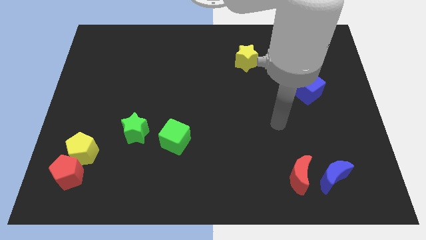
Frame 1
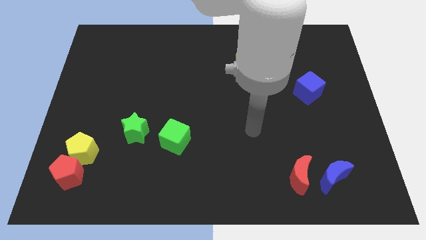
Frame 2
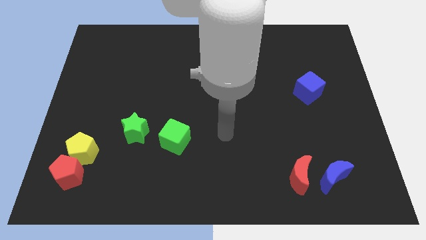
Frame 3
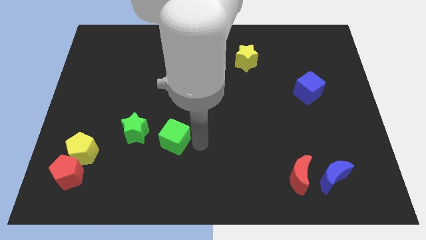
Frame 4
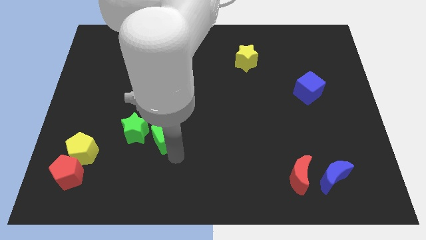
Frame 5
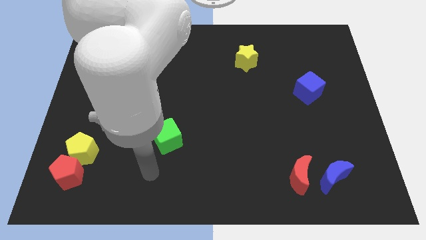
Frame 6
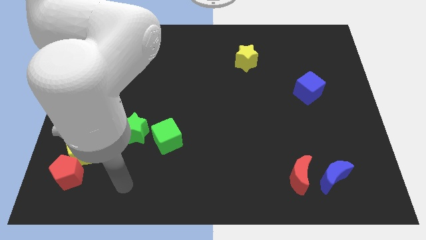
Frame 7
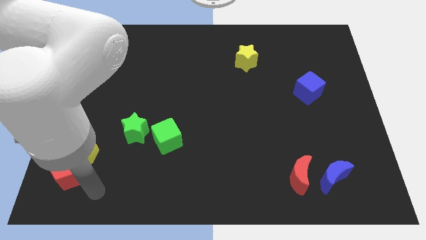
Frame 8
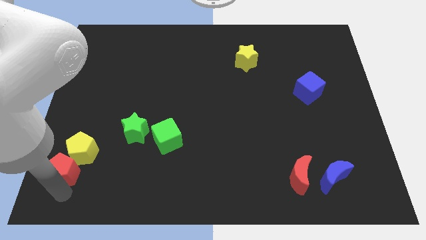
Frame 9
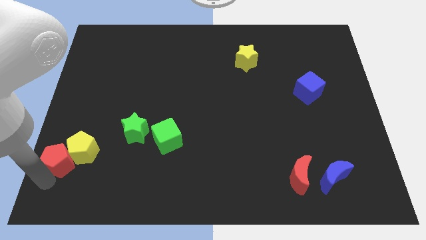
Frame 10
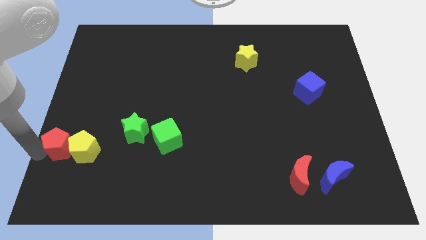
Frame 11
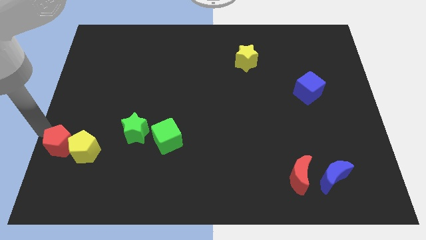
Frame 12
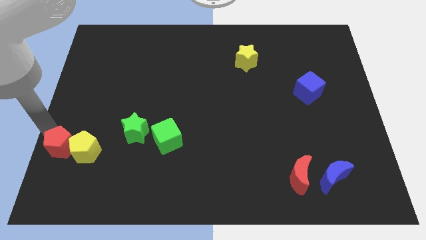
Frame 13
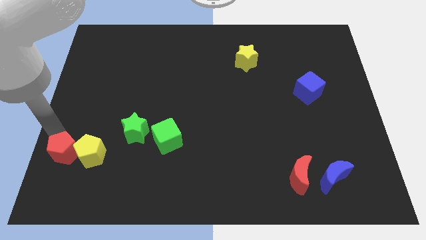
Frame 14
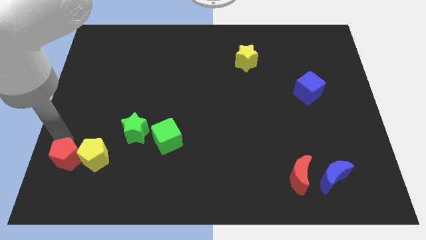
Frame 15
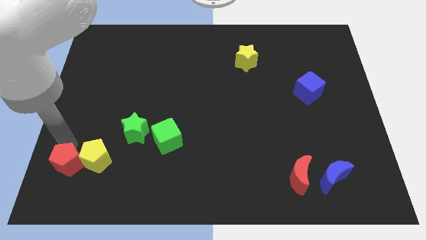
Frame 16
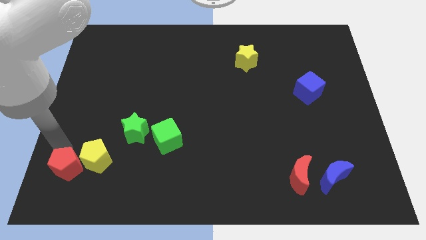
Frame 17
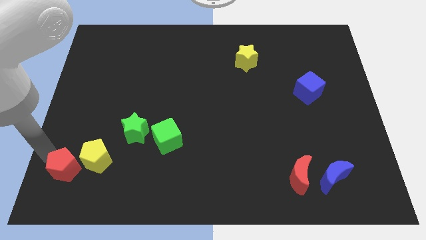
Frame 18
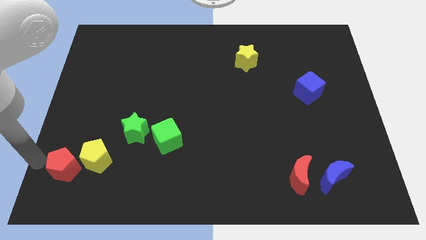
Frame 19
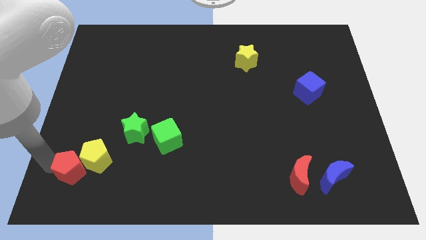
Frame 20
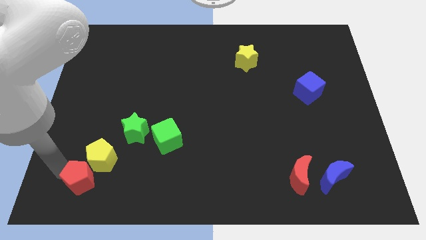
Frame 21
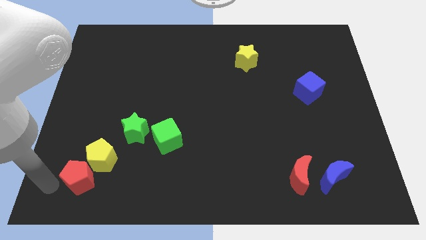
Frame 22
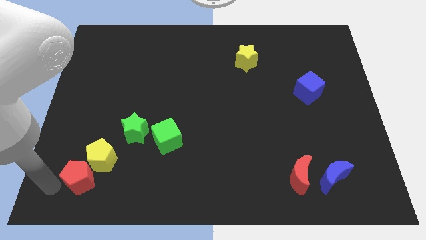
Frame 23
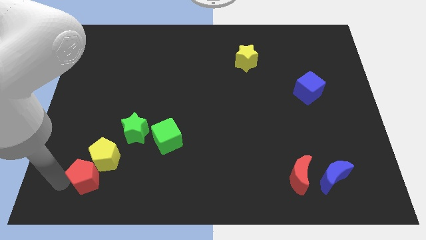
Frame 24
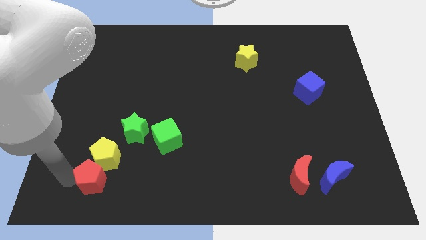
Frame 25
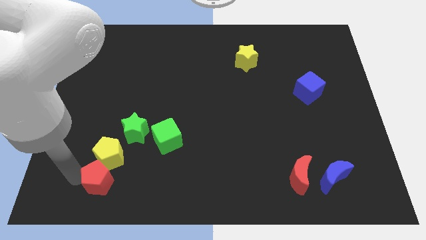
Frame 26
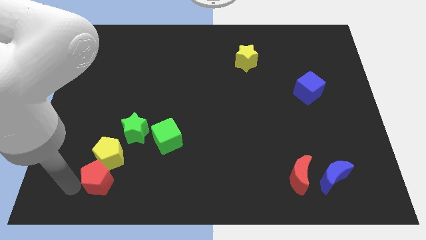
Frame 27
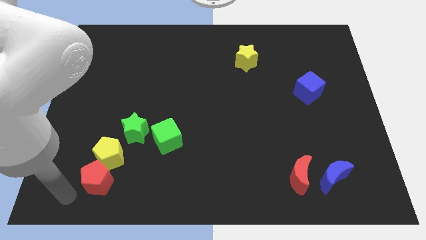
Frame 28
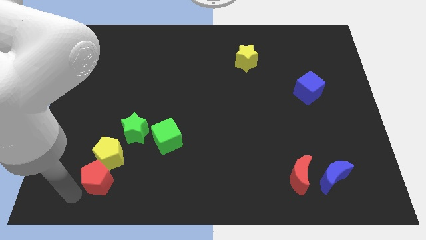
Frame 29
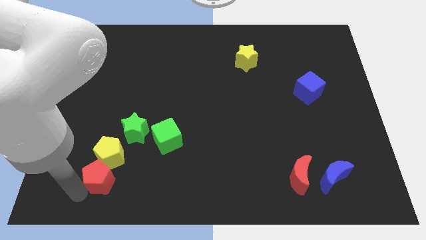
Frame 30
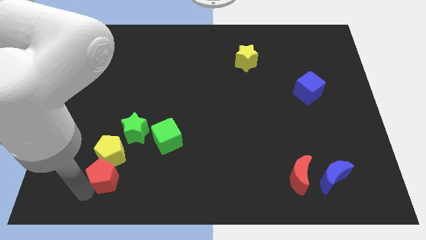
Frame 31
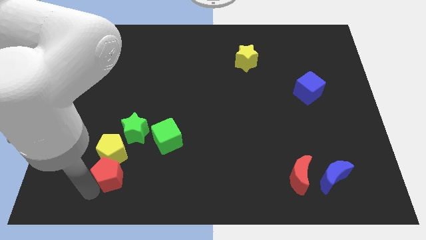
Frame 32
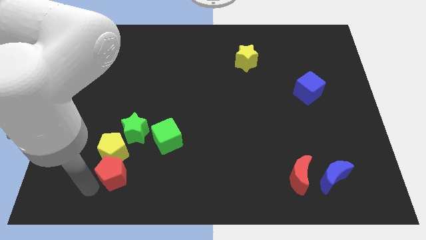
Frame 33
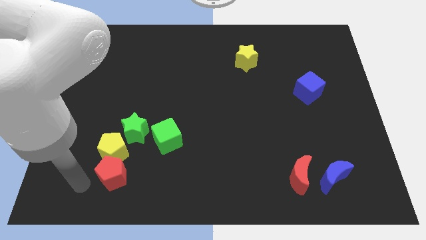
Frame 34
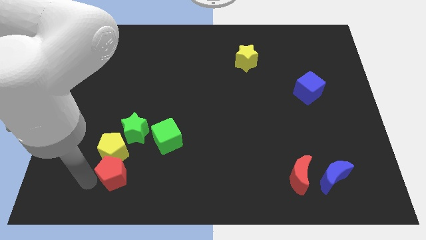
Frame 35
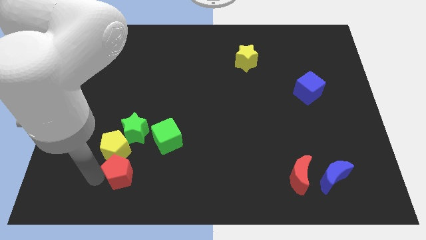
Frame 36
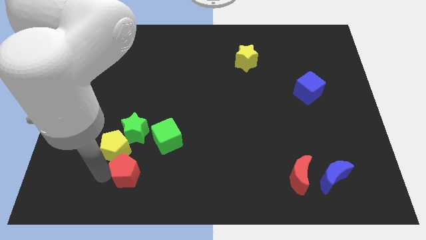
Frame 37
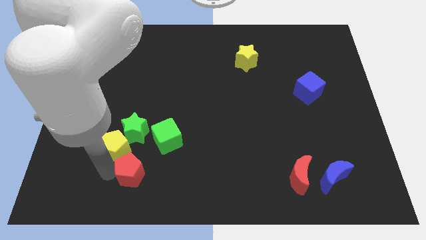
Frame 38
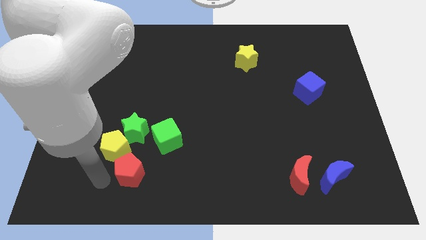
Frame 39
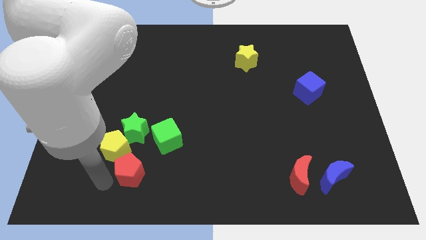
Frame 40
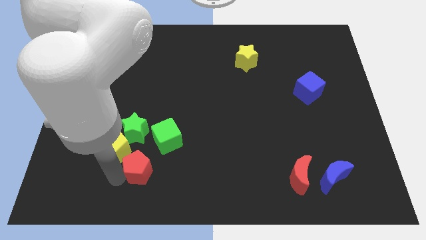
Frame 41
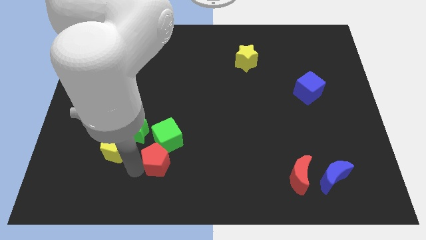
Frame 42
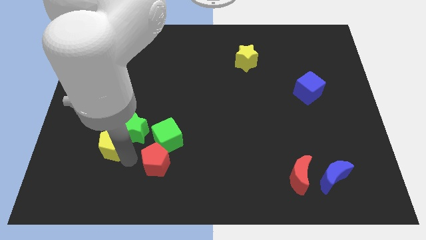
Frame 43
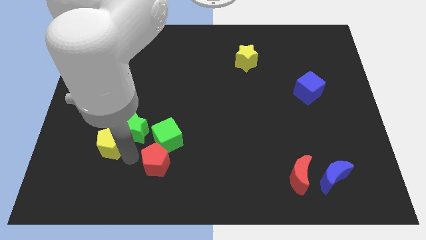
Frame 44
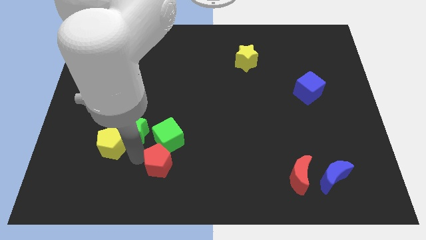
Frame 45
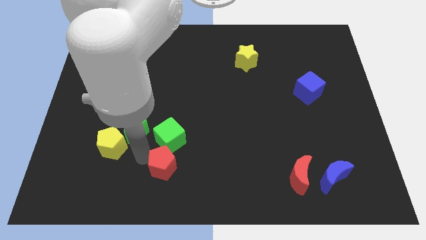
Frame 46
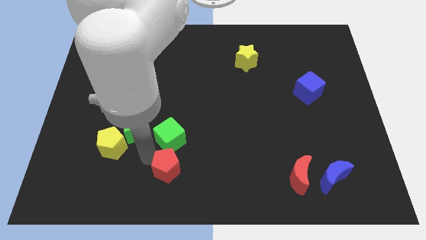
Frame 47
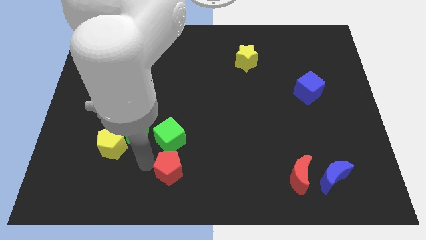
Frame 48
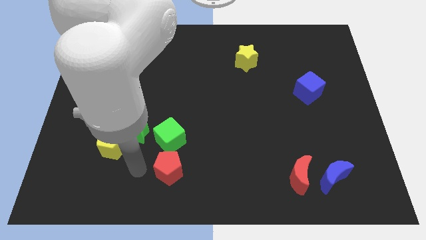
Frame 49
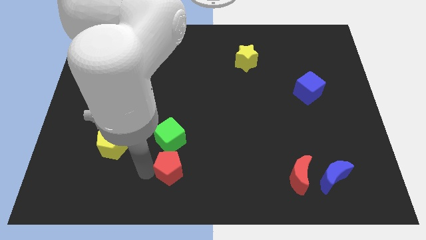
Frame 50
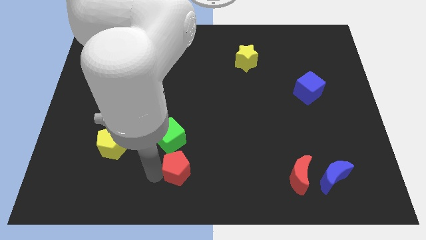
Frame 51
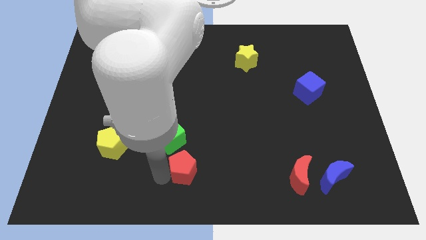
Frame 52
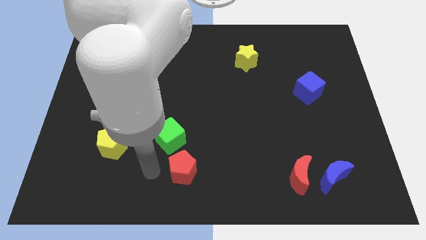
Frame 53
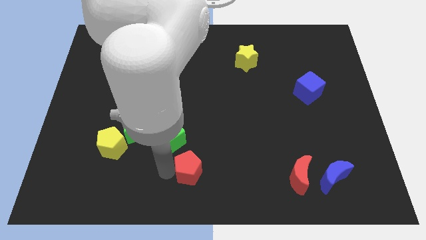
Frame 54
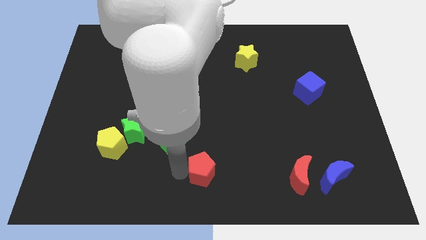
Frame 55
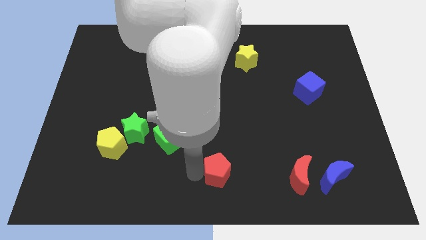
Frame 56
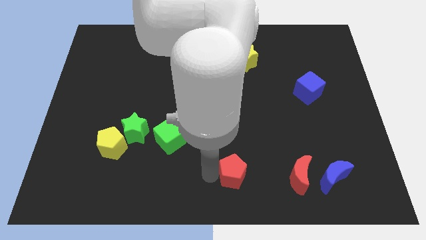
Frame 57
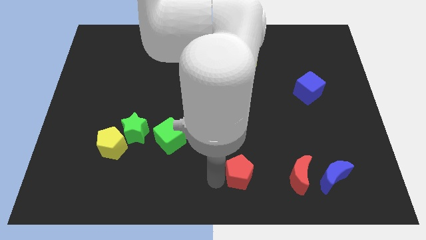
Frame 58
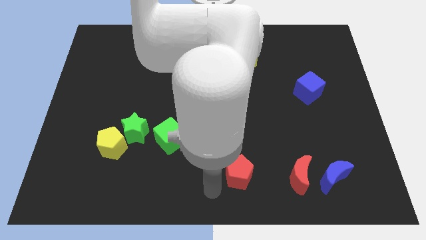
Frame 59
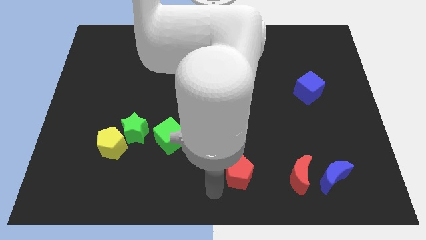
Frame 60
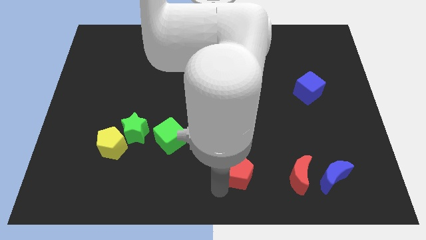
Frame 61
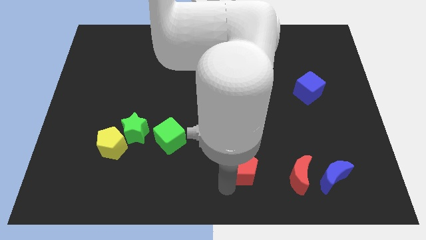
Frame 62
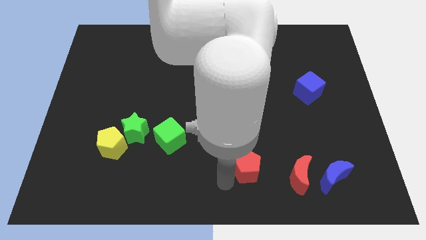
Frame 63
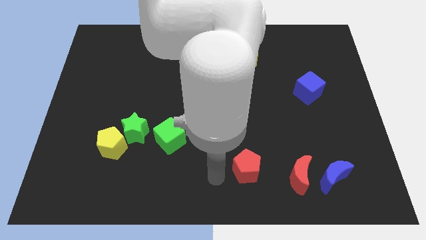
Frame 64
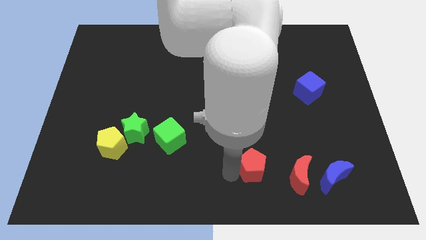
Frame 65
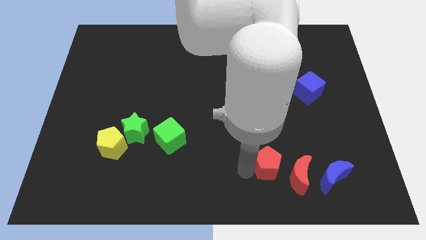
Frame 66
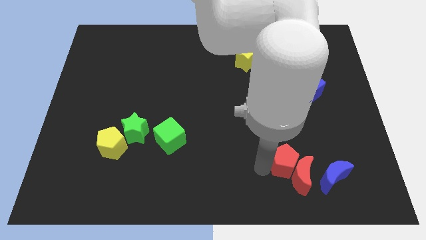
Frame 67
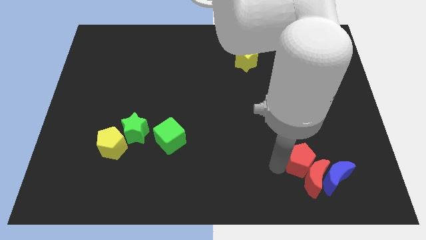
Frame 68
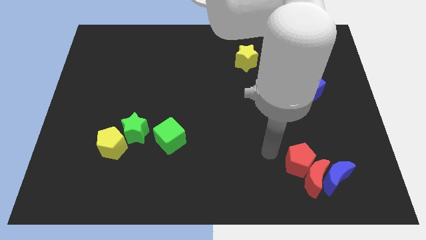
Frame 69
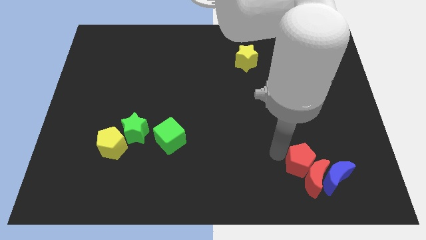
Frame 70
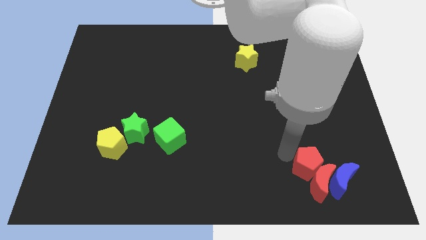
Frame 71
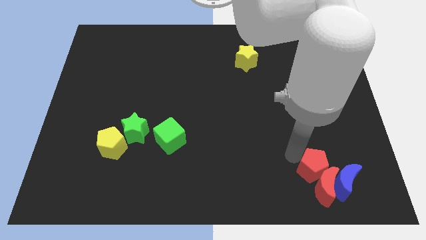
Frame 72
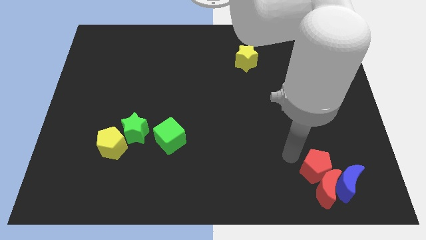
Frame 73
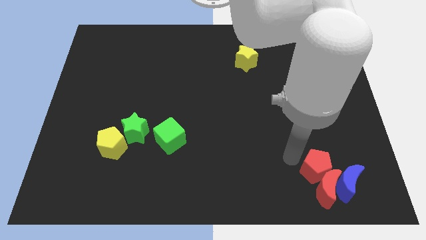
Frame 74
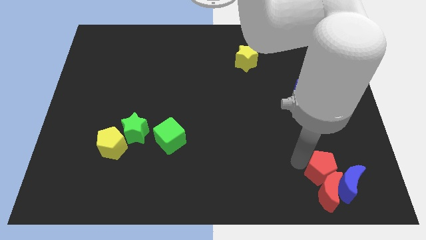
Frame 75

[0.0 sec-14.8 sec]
push the red pentagon towards the blue moon
